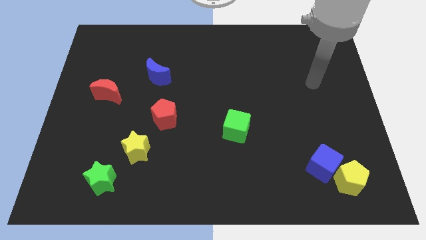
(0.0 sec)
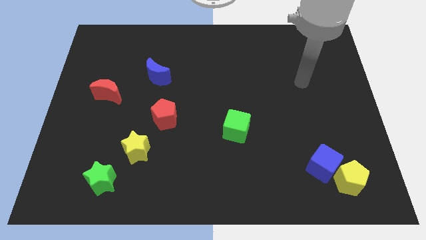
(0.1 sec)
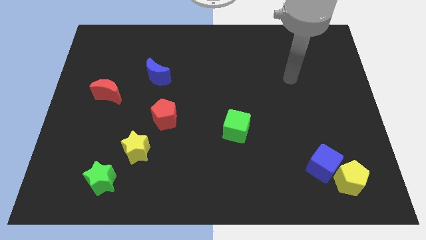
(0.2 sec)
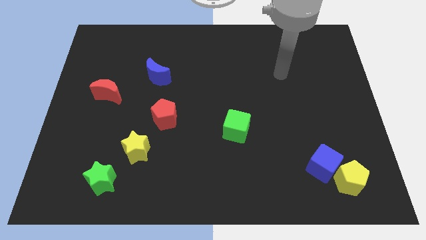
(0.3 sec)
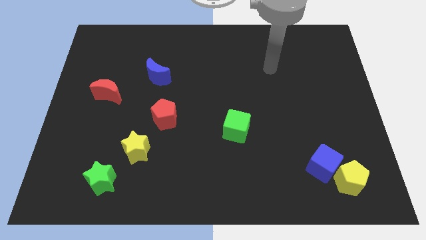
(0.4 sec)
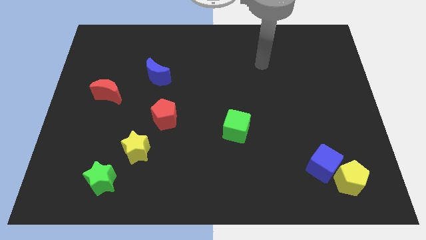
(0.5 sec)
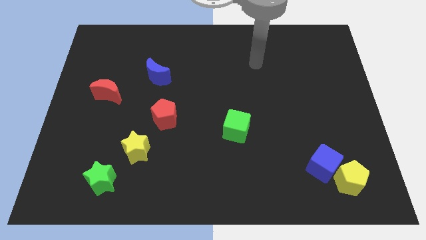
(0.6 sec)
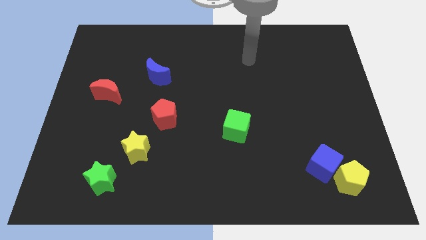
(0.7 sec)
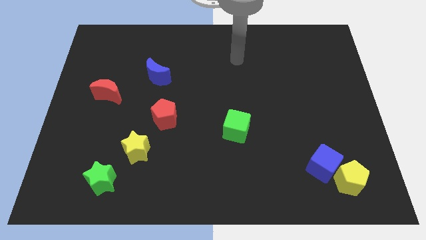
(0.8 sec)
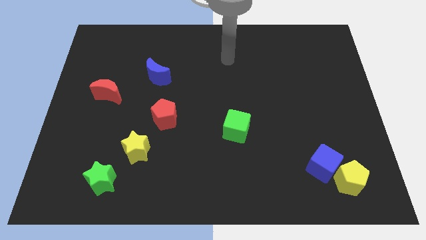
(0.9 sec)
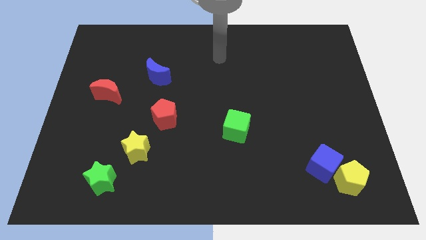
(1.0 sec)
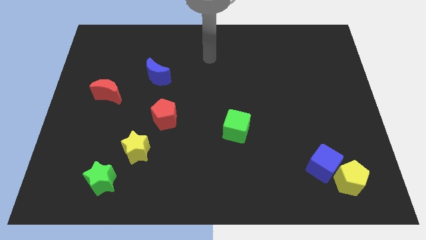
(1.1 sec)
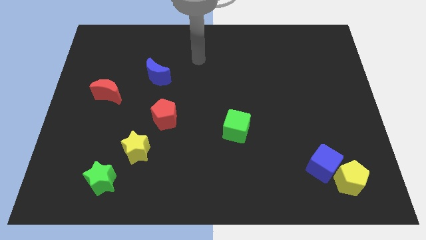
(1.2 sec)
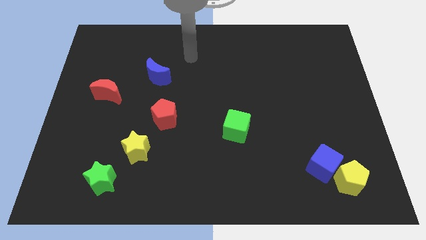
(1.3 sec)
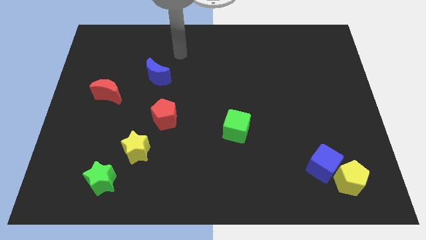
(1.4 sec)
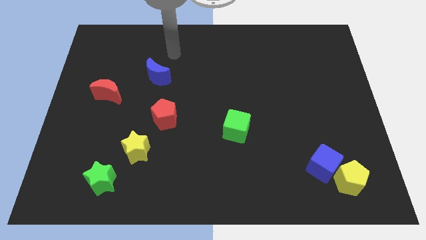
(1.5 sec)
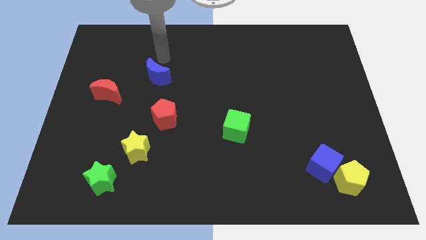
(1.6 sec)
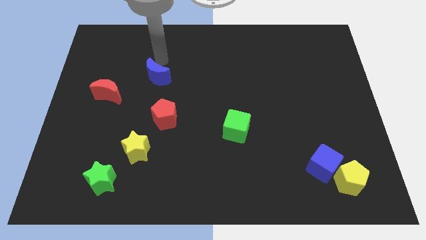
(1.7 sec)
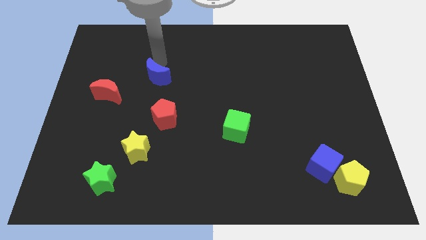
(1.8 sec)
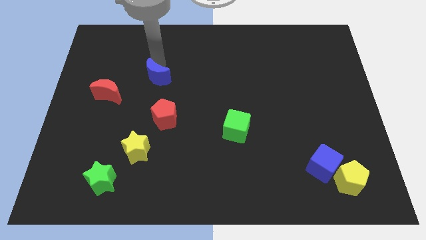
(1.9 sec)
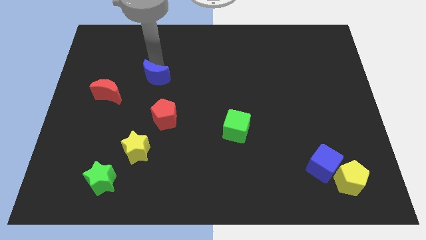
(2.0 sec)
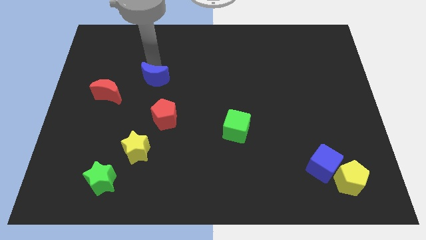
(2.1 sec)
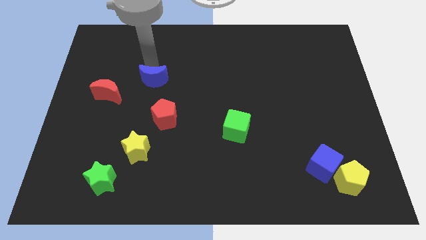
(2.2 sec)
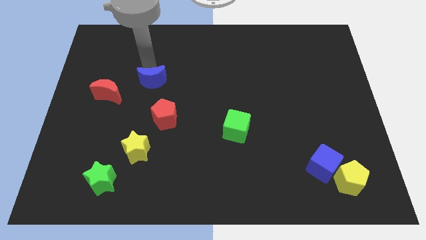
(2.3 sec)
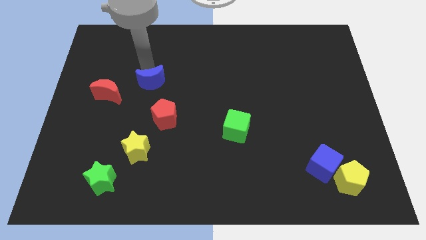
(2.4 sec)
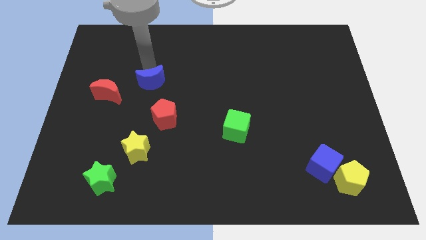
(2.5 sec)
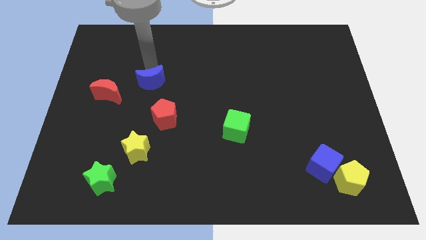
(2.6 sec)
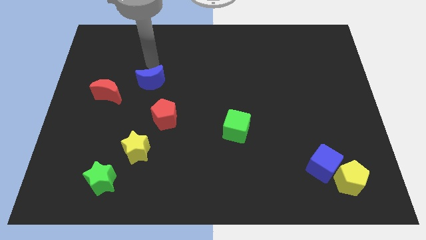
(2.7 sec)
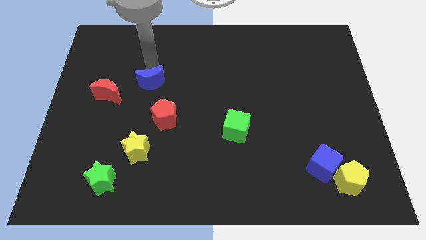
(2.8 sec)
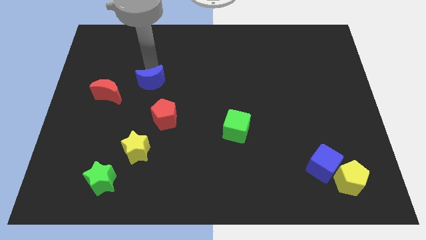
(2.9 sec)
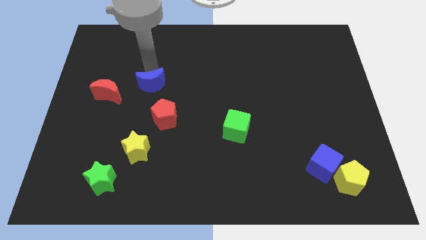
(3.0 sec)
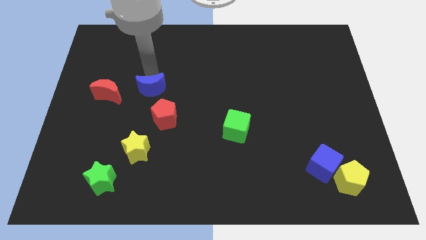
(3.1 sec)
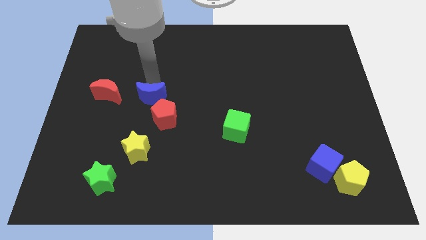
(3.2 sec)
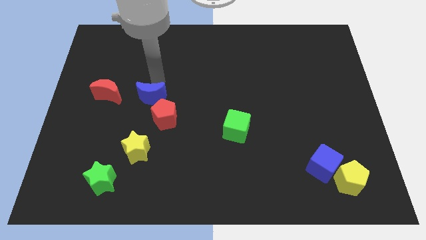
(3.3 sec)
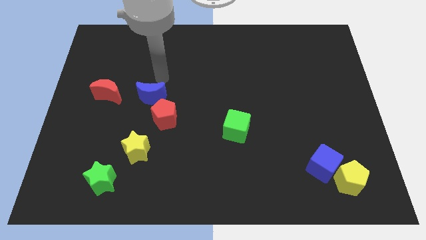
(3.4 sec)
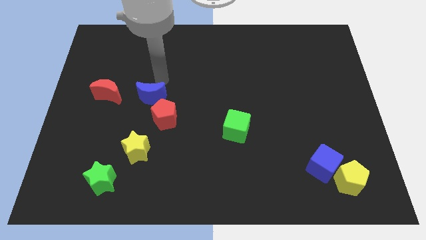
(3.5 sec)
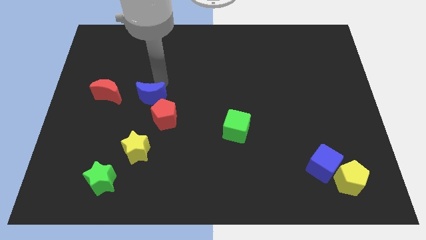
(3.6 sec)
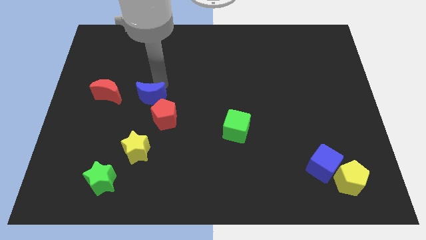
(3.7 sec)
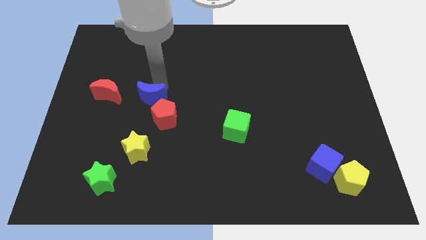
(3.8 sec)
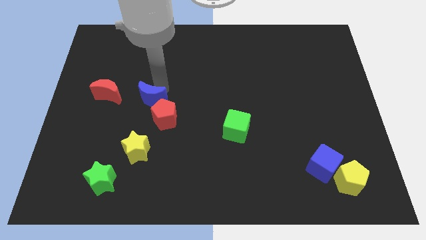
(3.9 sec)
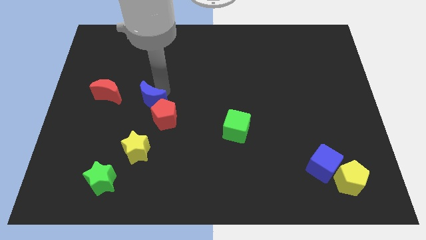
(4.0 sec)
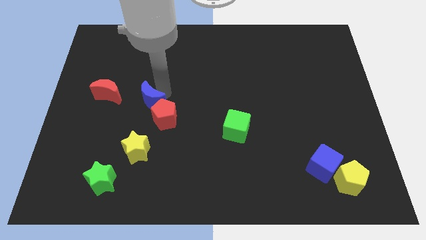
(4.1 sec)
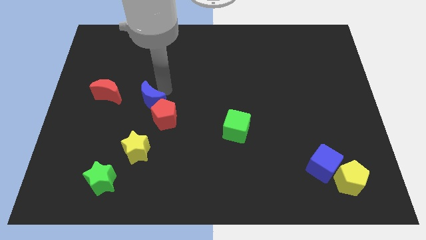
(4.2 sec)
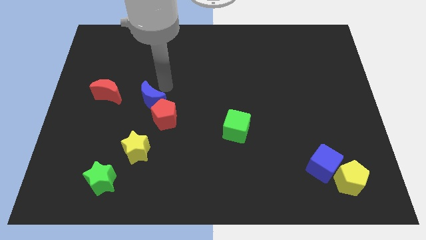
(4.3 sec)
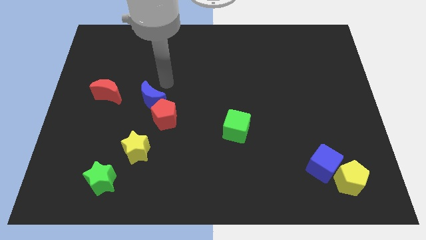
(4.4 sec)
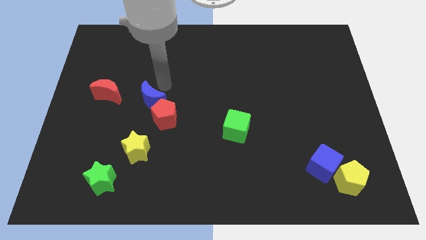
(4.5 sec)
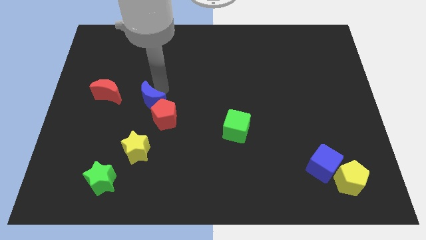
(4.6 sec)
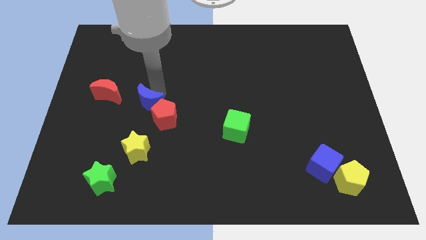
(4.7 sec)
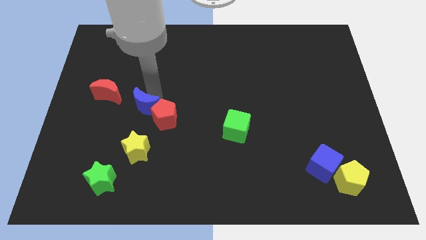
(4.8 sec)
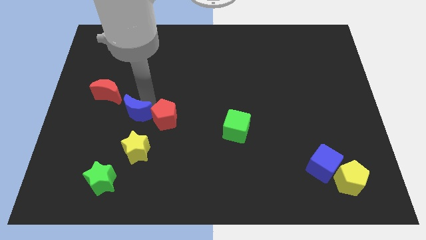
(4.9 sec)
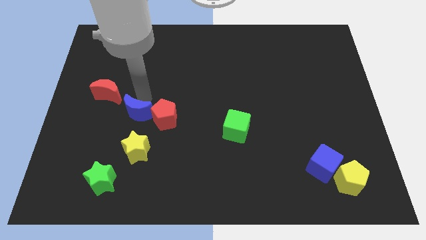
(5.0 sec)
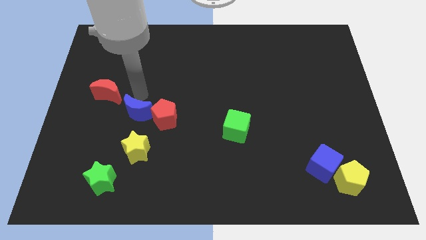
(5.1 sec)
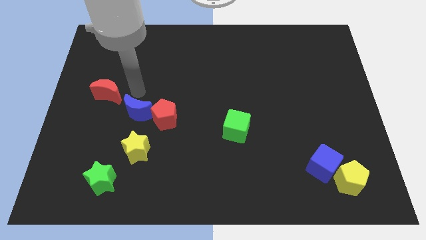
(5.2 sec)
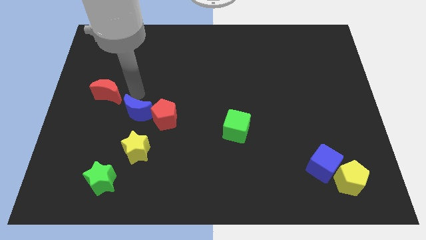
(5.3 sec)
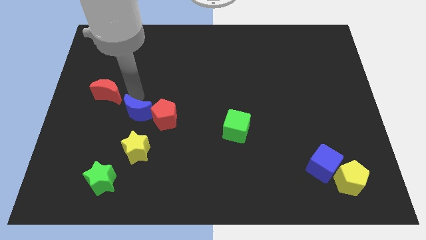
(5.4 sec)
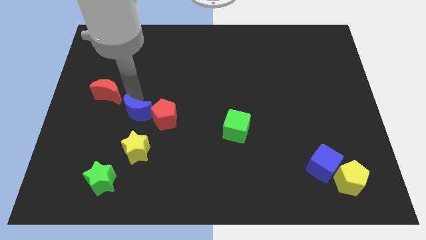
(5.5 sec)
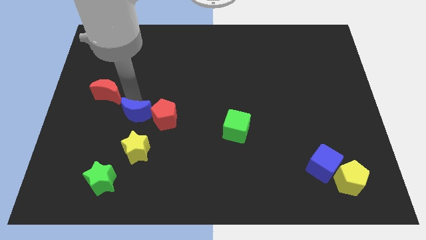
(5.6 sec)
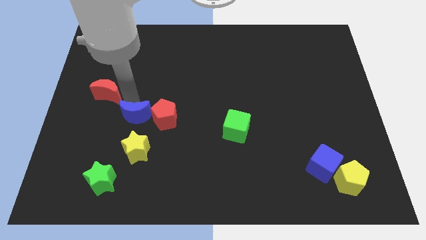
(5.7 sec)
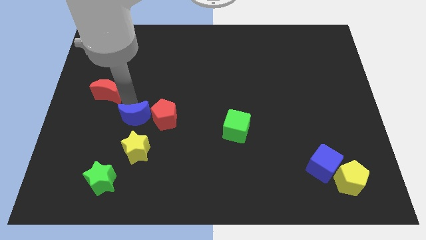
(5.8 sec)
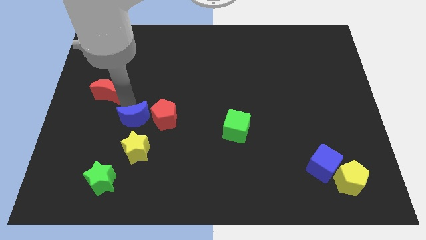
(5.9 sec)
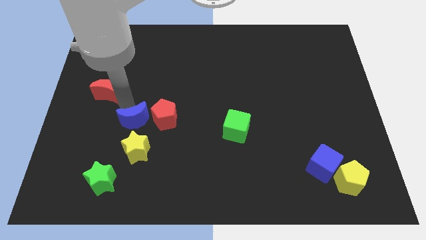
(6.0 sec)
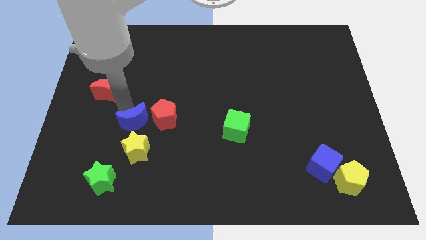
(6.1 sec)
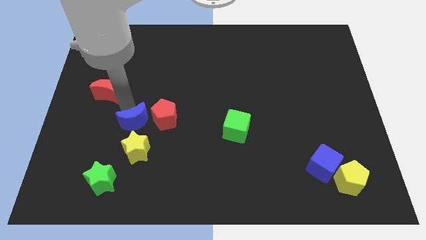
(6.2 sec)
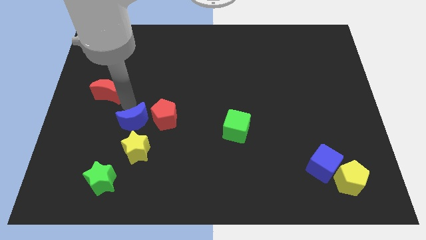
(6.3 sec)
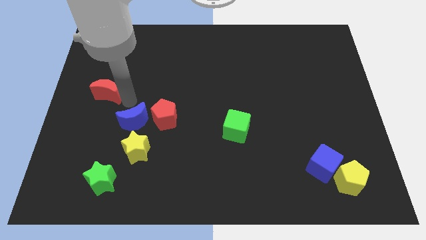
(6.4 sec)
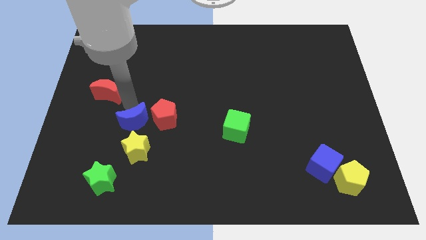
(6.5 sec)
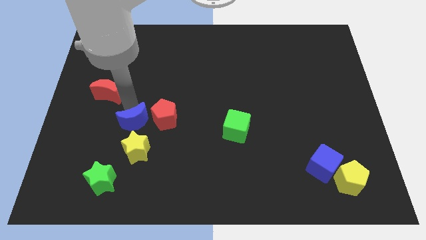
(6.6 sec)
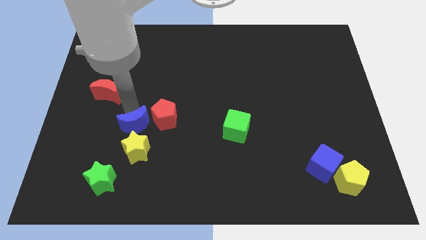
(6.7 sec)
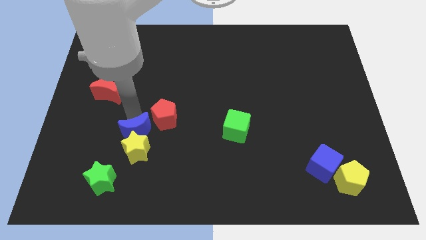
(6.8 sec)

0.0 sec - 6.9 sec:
put the blue moon to the yellow star

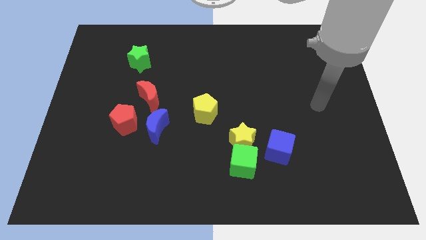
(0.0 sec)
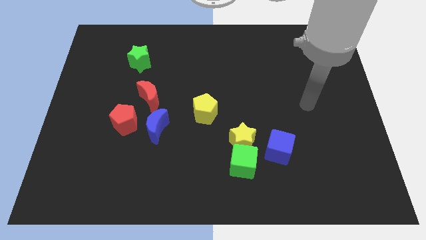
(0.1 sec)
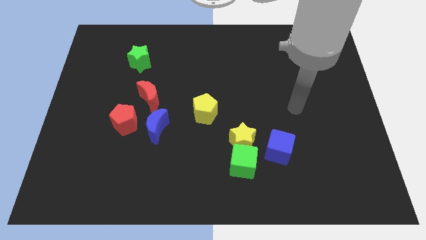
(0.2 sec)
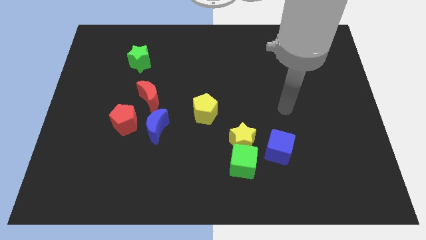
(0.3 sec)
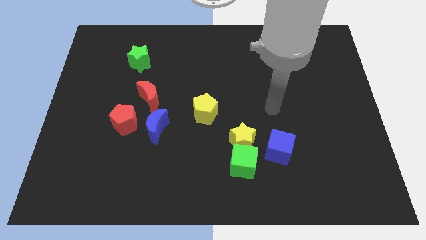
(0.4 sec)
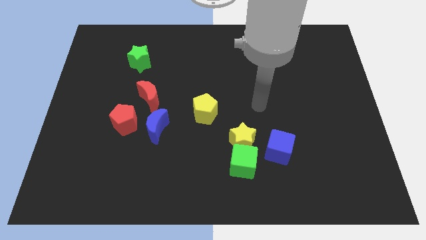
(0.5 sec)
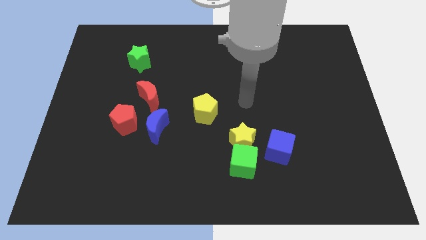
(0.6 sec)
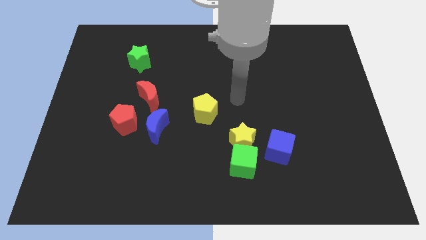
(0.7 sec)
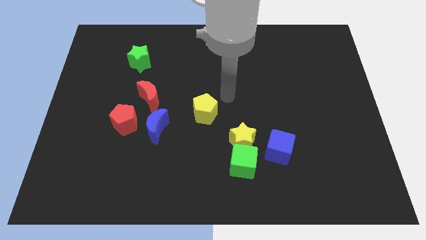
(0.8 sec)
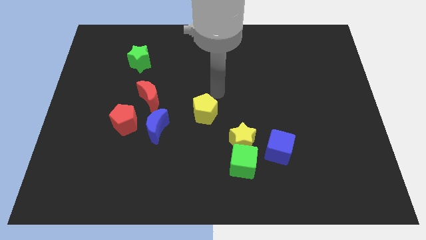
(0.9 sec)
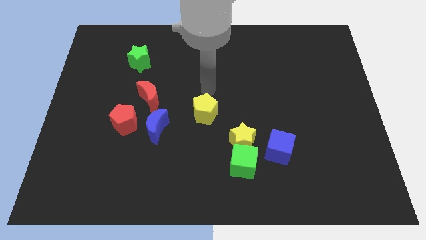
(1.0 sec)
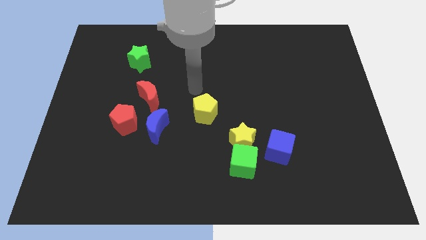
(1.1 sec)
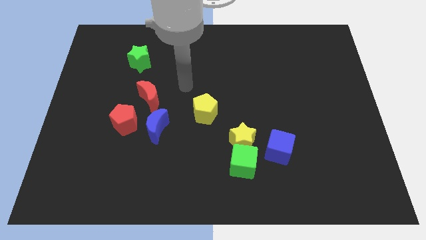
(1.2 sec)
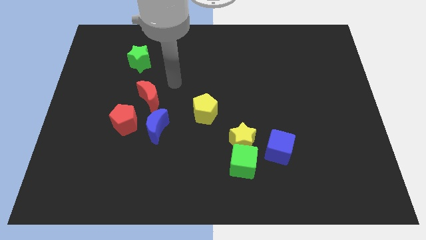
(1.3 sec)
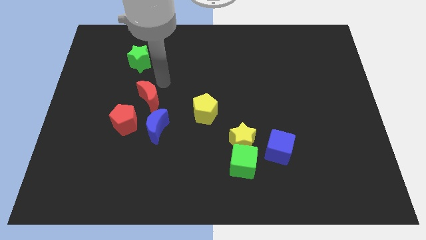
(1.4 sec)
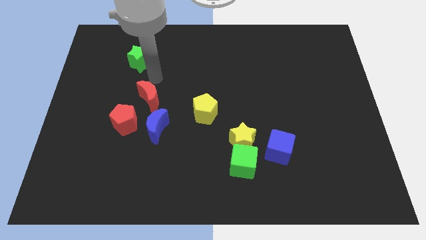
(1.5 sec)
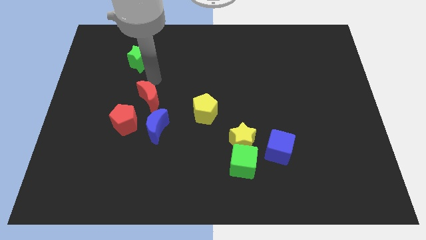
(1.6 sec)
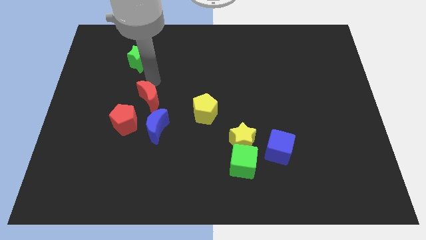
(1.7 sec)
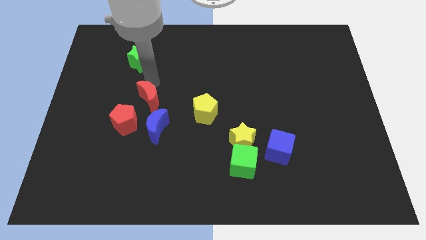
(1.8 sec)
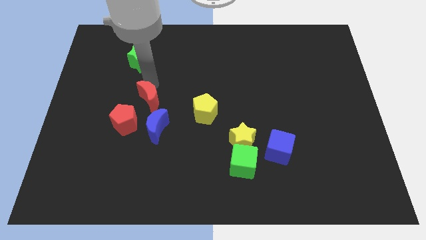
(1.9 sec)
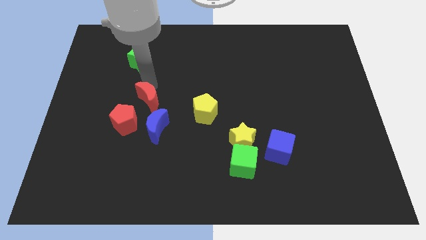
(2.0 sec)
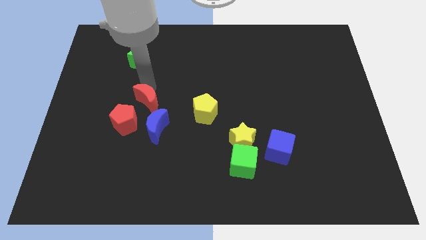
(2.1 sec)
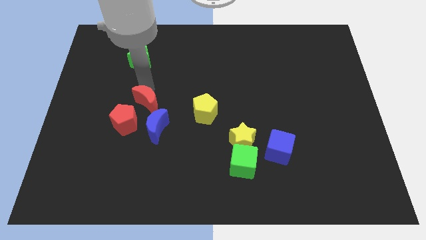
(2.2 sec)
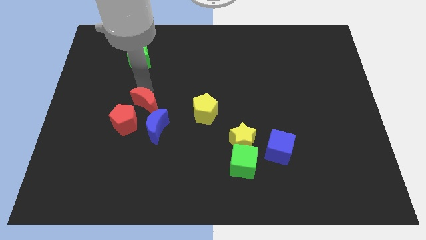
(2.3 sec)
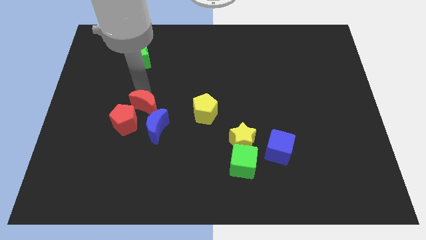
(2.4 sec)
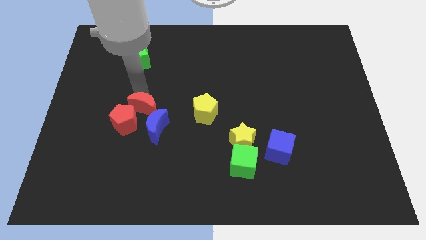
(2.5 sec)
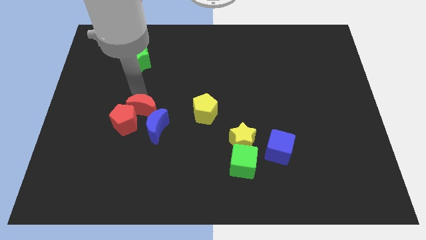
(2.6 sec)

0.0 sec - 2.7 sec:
slide the red moon close to the blue moon
